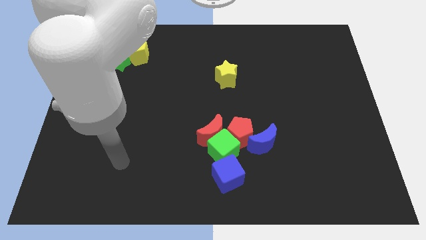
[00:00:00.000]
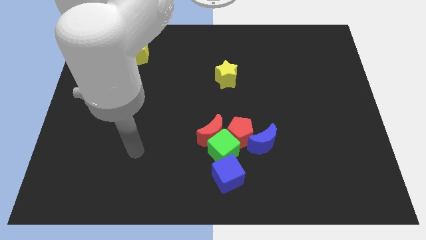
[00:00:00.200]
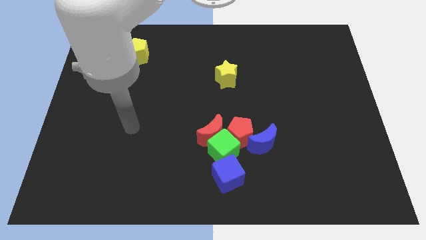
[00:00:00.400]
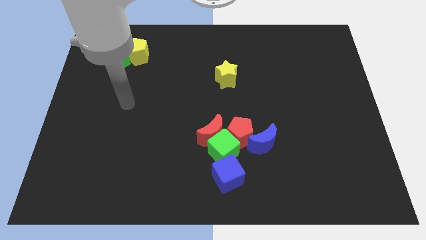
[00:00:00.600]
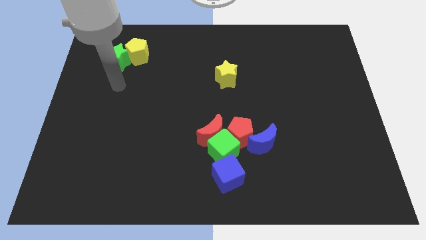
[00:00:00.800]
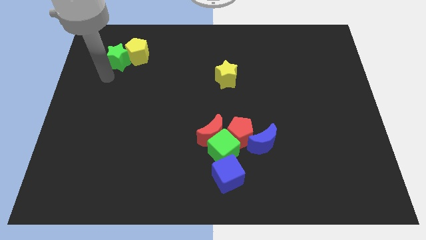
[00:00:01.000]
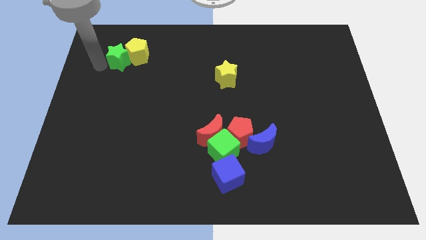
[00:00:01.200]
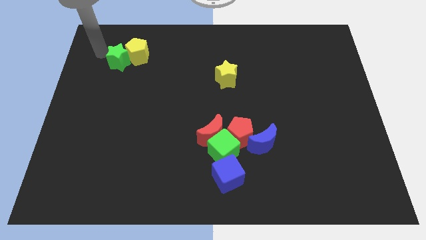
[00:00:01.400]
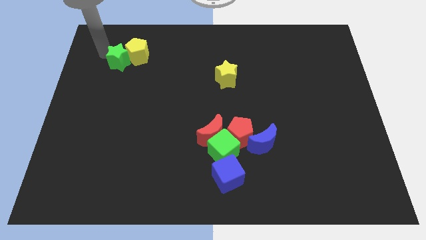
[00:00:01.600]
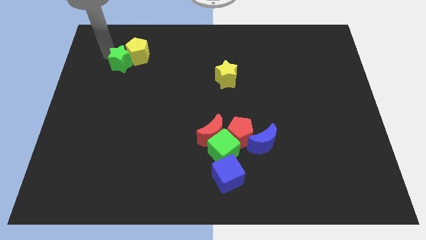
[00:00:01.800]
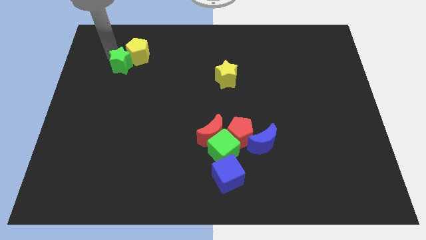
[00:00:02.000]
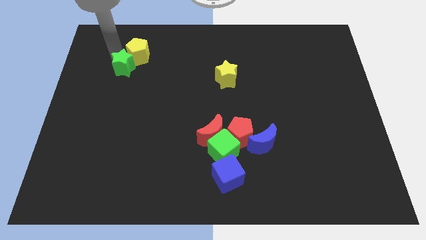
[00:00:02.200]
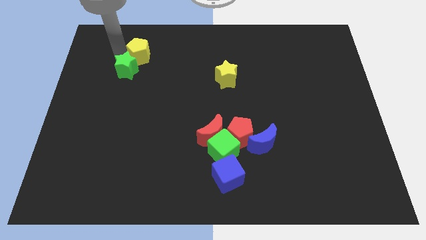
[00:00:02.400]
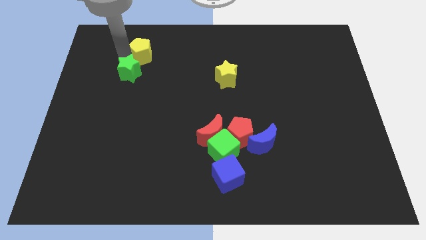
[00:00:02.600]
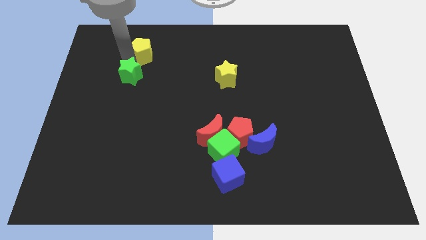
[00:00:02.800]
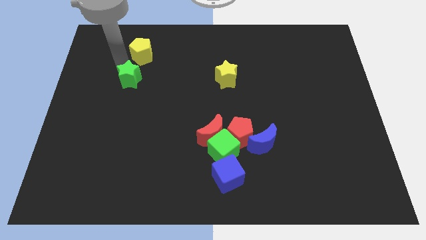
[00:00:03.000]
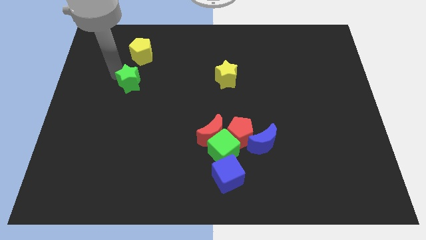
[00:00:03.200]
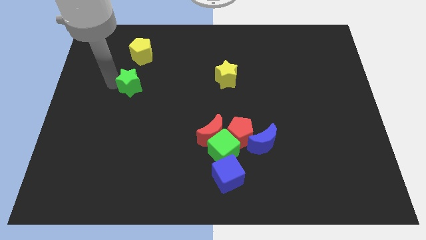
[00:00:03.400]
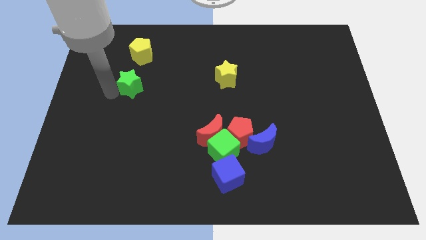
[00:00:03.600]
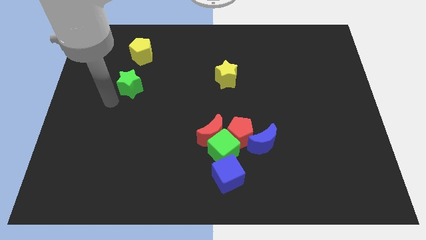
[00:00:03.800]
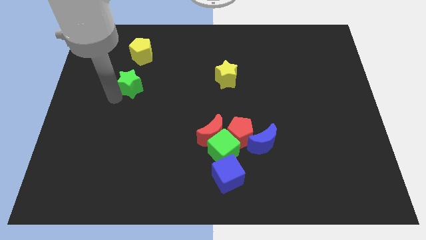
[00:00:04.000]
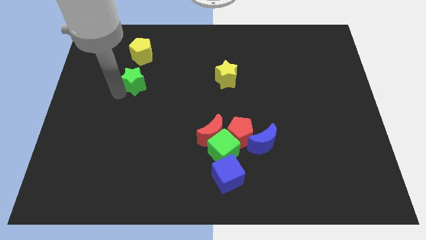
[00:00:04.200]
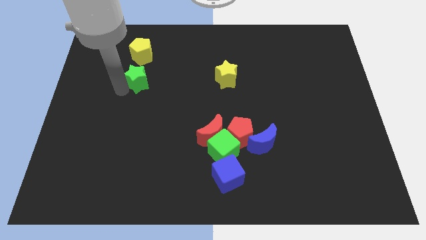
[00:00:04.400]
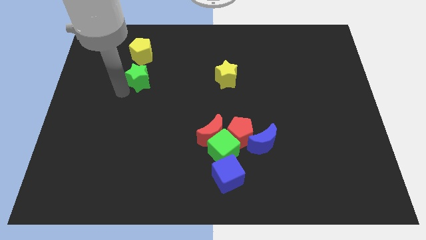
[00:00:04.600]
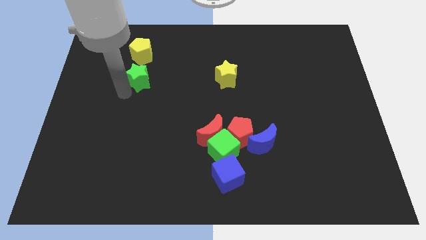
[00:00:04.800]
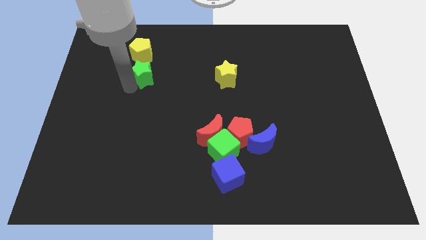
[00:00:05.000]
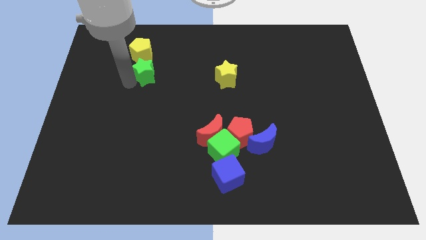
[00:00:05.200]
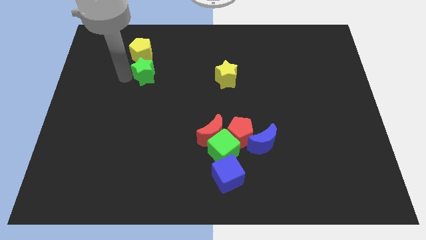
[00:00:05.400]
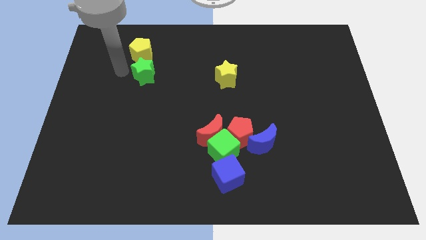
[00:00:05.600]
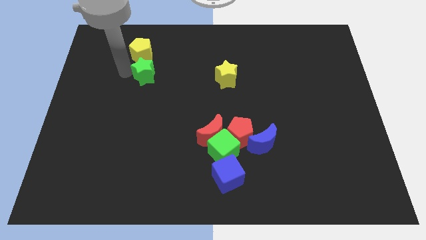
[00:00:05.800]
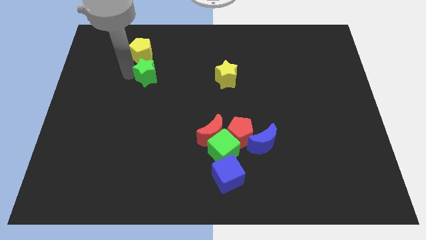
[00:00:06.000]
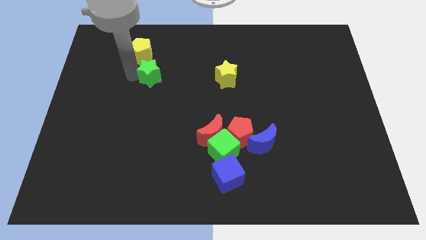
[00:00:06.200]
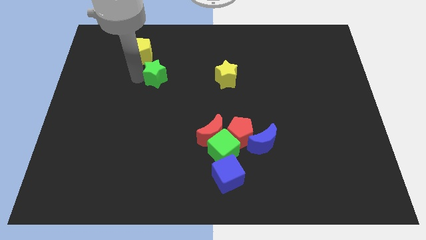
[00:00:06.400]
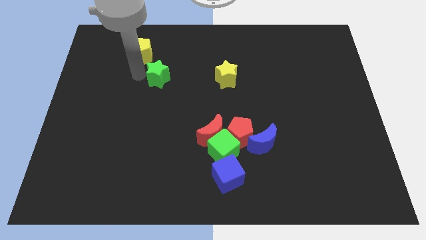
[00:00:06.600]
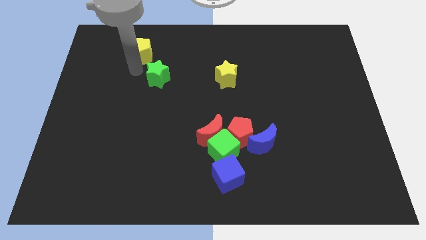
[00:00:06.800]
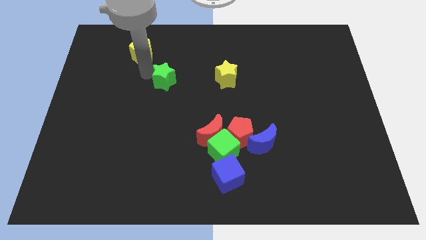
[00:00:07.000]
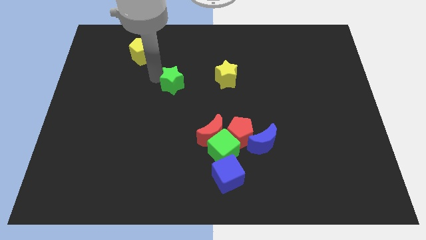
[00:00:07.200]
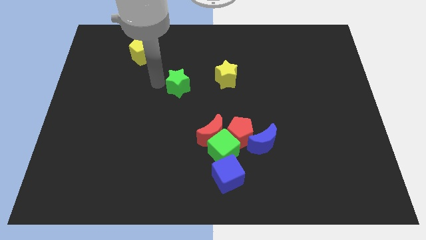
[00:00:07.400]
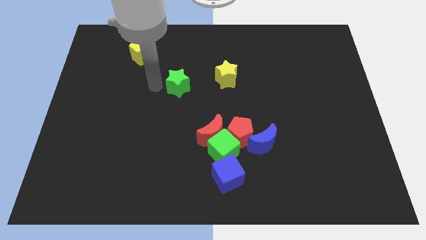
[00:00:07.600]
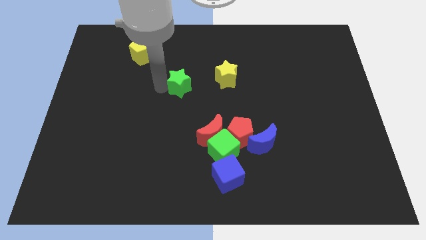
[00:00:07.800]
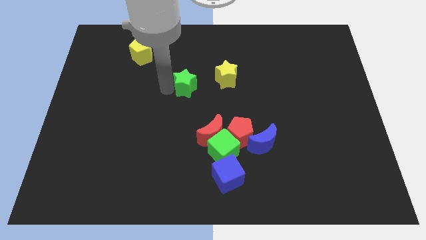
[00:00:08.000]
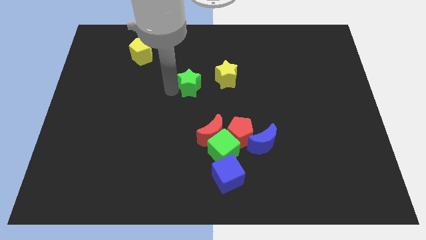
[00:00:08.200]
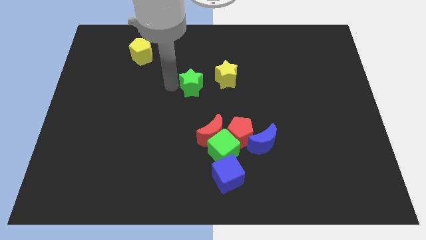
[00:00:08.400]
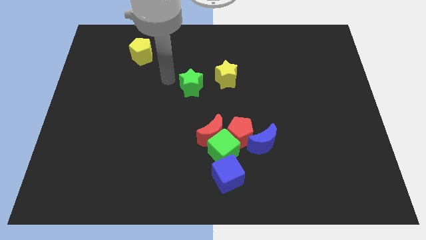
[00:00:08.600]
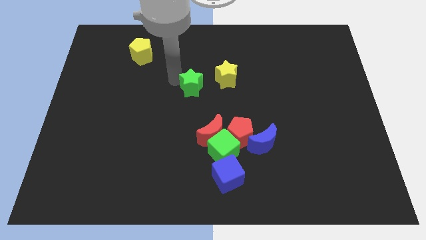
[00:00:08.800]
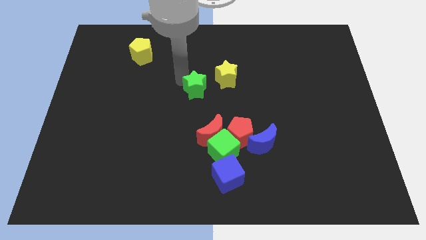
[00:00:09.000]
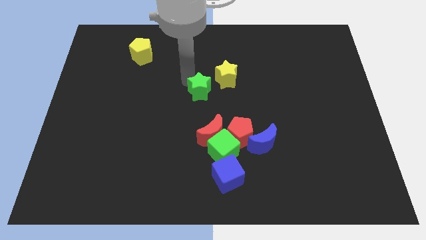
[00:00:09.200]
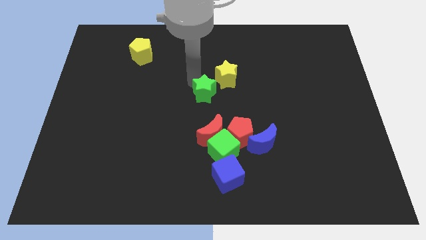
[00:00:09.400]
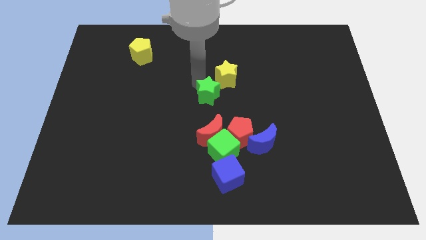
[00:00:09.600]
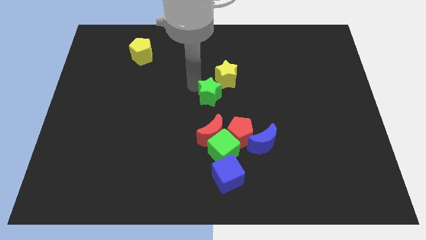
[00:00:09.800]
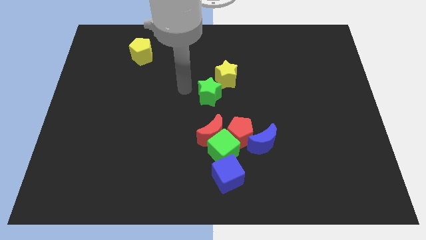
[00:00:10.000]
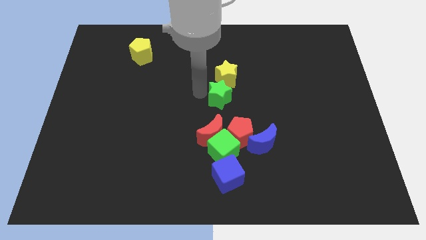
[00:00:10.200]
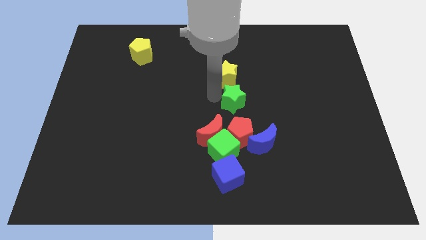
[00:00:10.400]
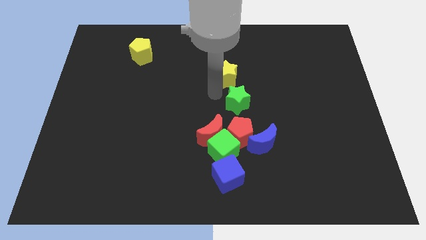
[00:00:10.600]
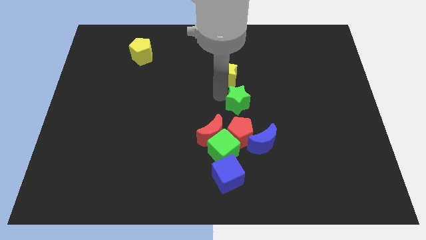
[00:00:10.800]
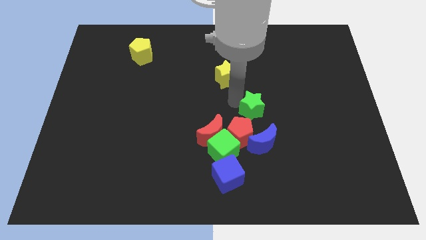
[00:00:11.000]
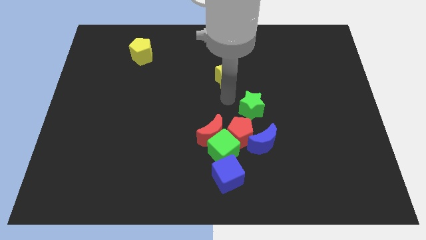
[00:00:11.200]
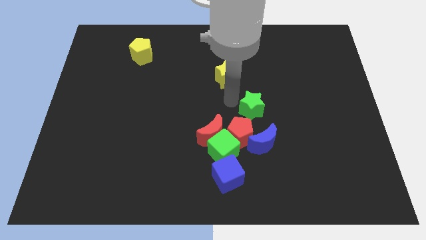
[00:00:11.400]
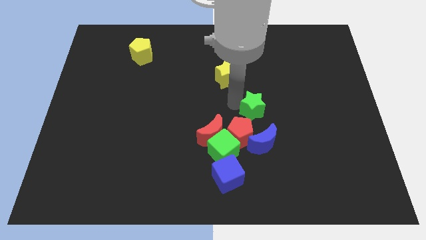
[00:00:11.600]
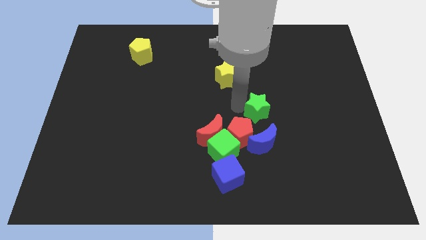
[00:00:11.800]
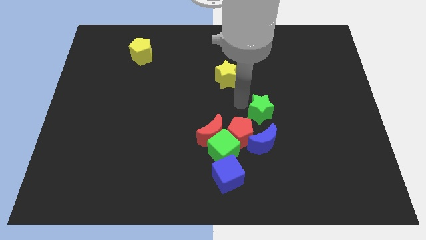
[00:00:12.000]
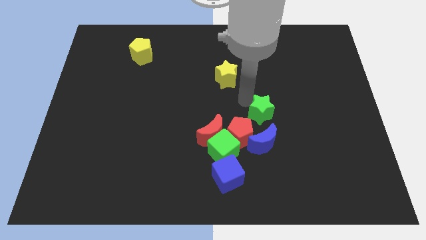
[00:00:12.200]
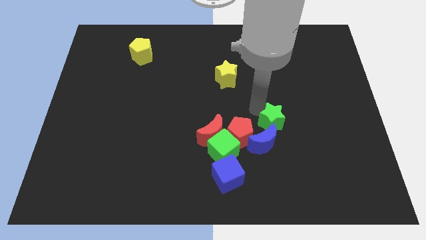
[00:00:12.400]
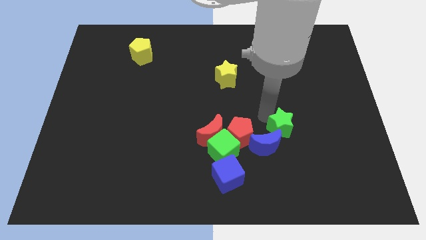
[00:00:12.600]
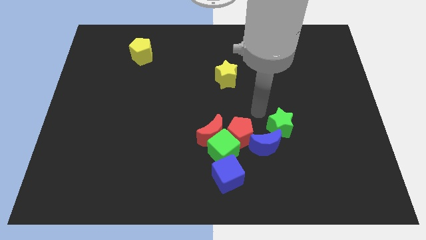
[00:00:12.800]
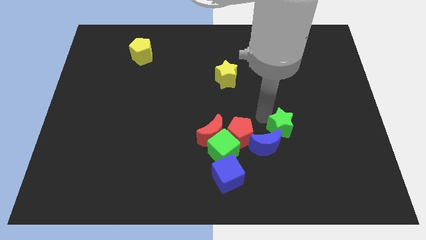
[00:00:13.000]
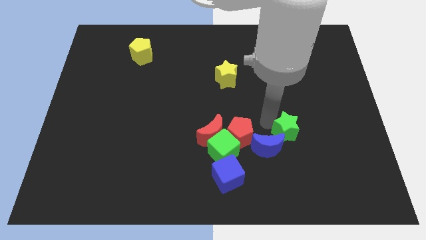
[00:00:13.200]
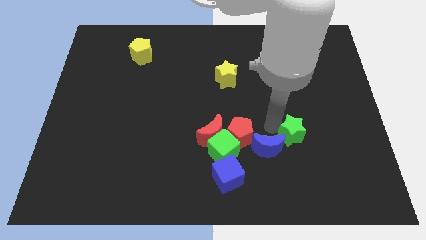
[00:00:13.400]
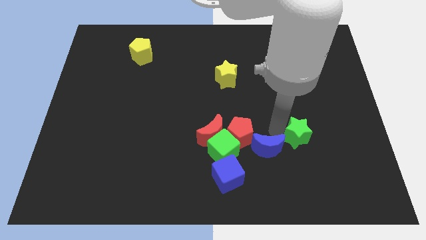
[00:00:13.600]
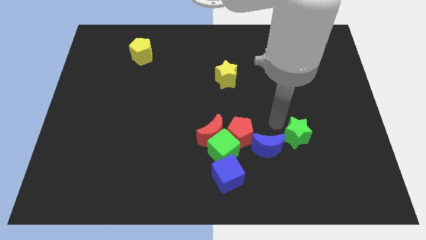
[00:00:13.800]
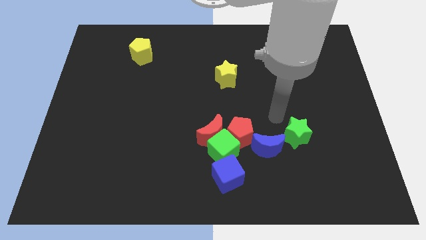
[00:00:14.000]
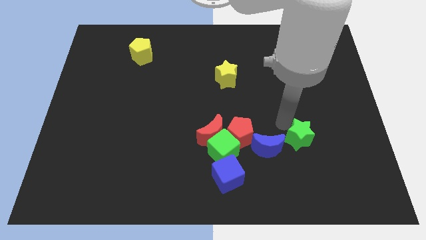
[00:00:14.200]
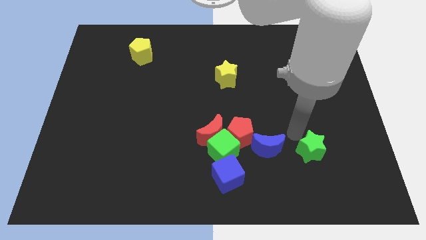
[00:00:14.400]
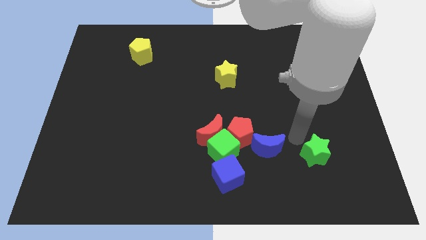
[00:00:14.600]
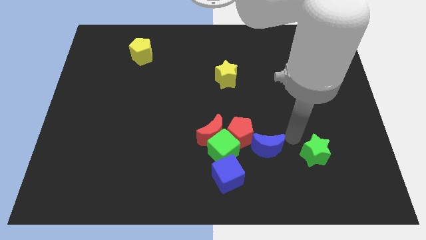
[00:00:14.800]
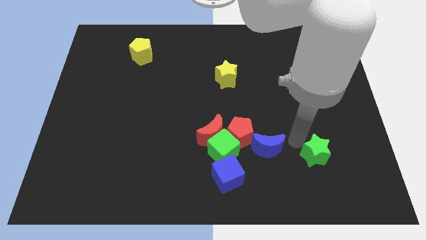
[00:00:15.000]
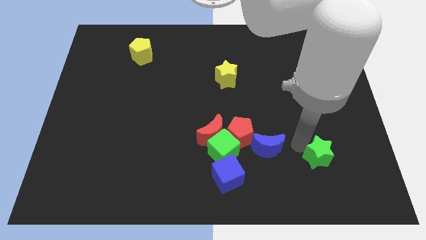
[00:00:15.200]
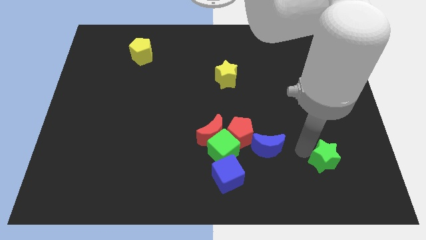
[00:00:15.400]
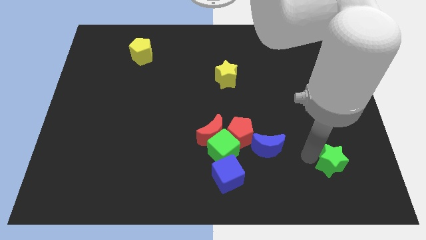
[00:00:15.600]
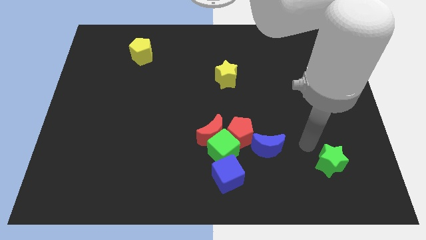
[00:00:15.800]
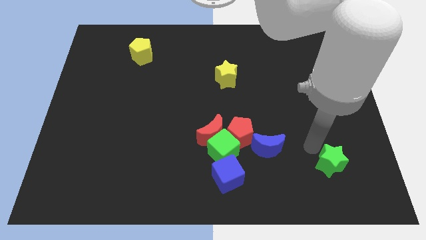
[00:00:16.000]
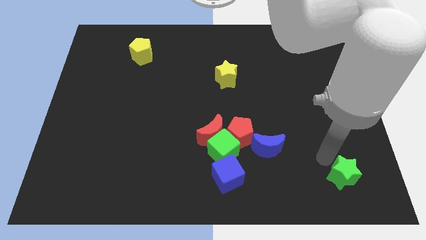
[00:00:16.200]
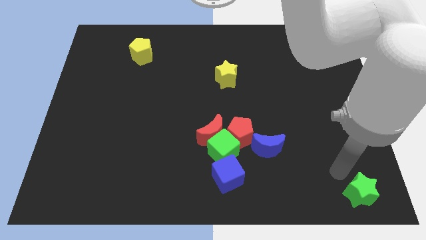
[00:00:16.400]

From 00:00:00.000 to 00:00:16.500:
push the green star to the bottom right
